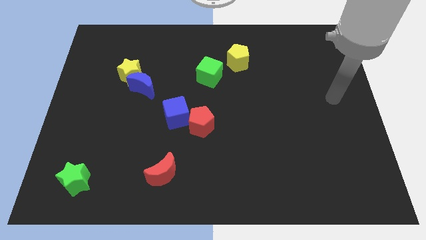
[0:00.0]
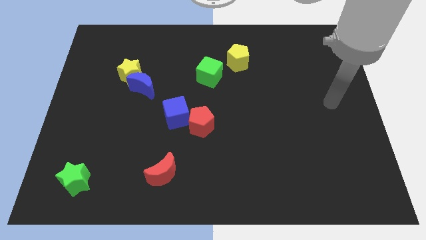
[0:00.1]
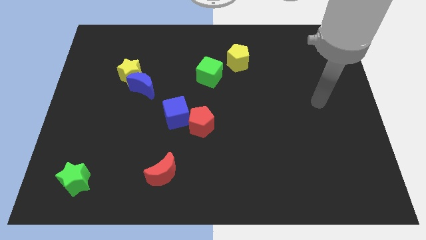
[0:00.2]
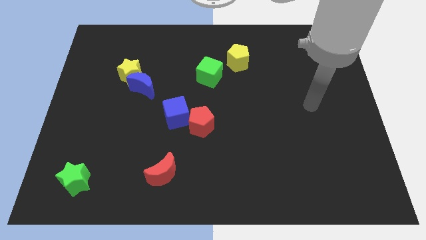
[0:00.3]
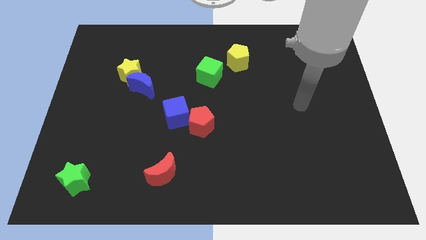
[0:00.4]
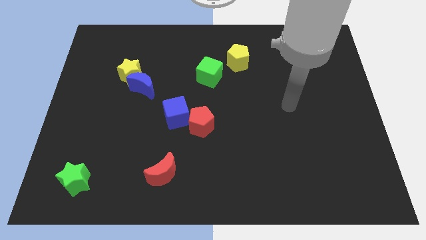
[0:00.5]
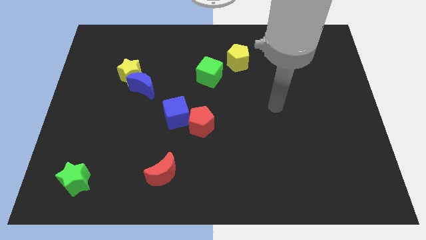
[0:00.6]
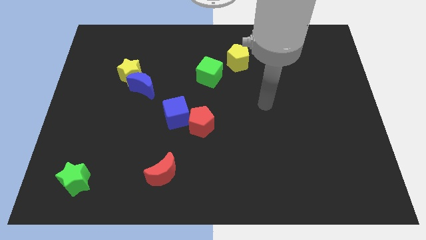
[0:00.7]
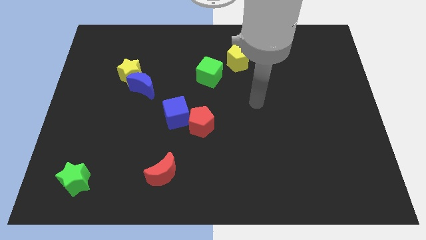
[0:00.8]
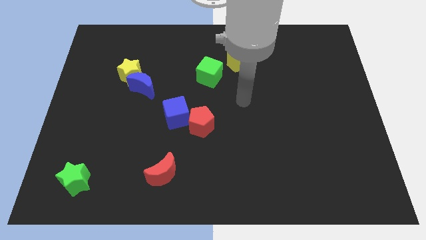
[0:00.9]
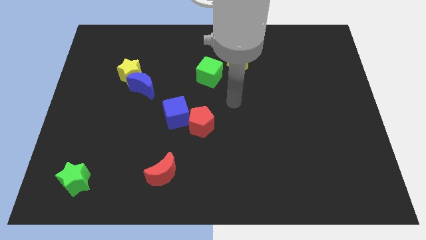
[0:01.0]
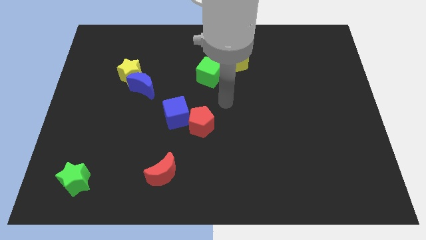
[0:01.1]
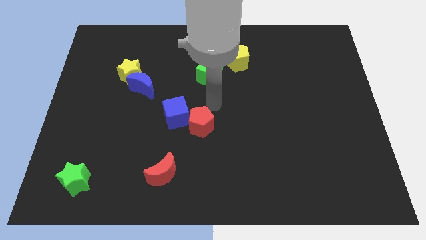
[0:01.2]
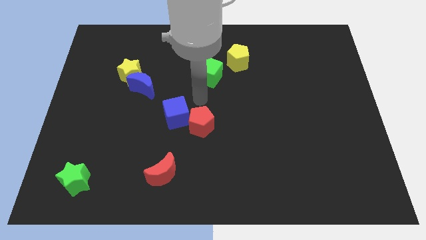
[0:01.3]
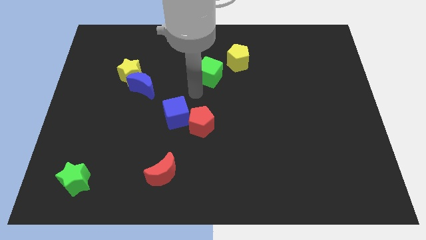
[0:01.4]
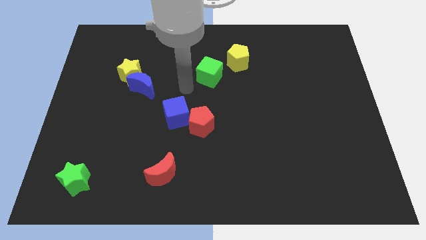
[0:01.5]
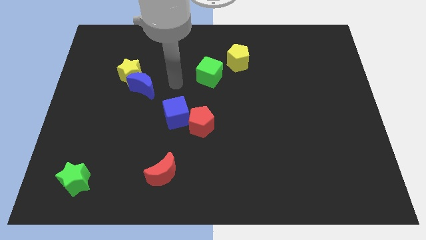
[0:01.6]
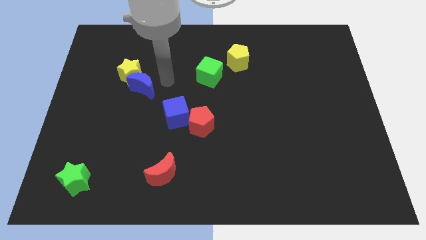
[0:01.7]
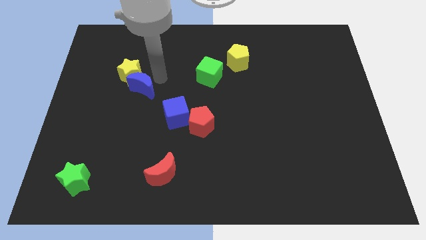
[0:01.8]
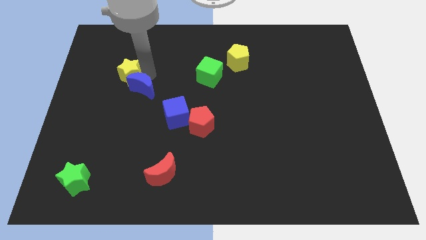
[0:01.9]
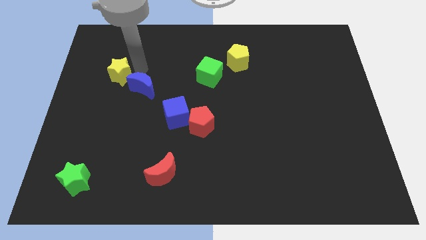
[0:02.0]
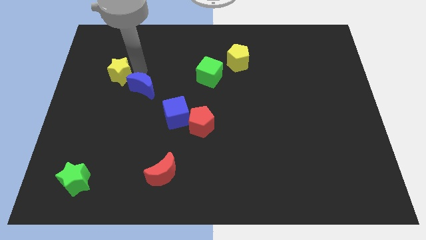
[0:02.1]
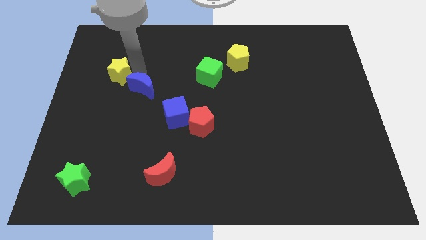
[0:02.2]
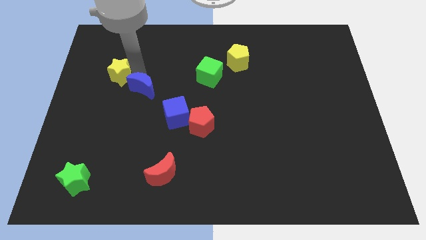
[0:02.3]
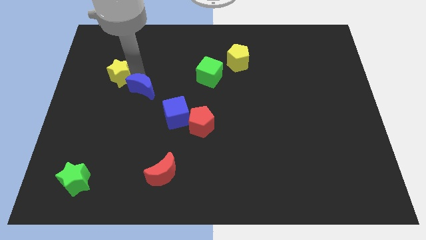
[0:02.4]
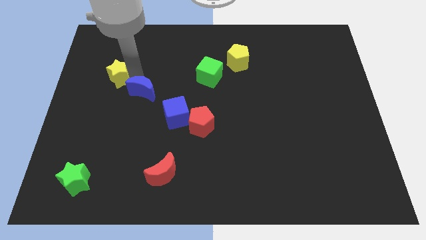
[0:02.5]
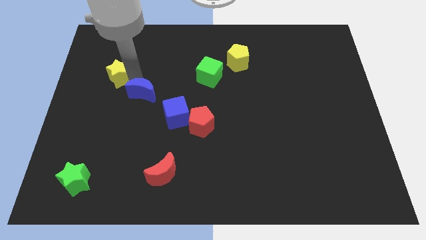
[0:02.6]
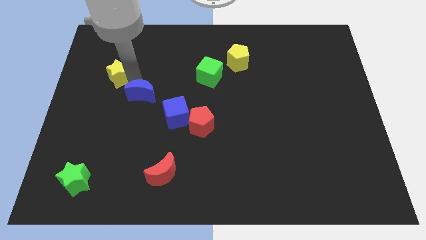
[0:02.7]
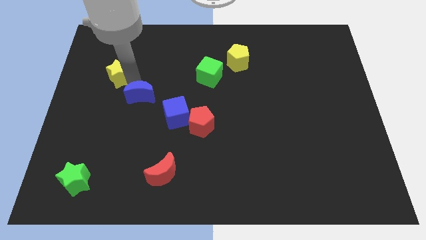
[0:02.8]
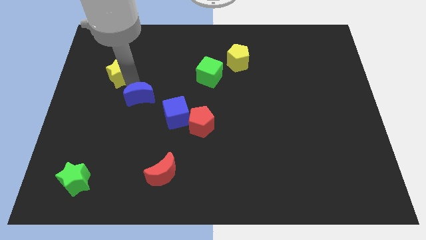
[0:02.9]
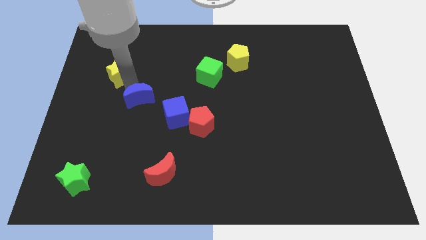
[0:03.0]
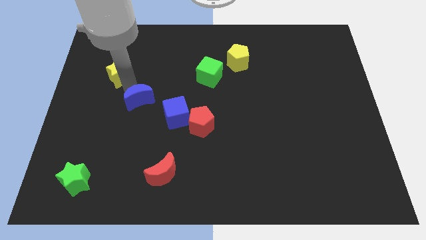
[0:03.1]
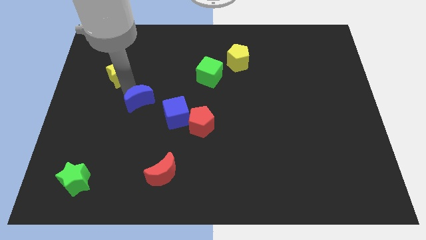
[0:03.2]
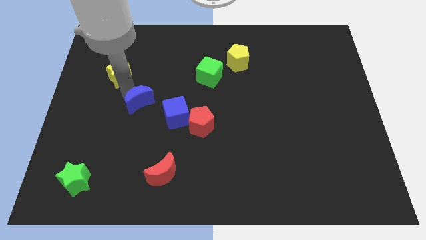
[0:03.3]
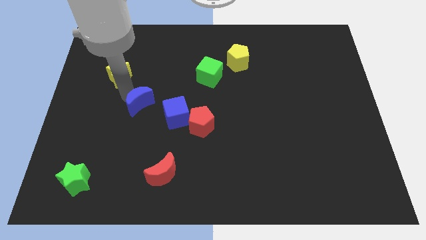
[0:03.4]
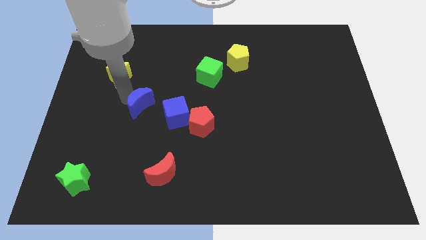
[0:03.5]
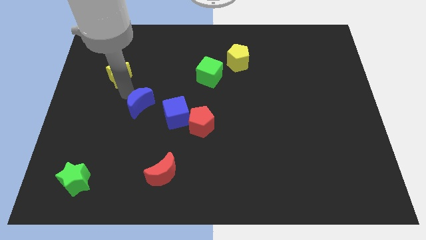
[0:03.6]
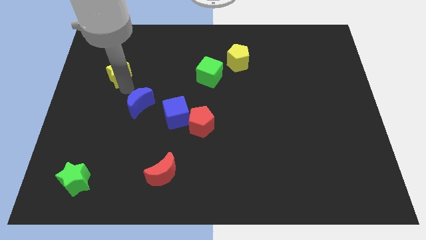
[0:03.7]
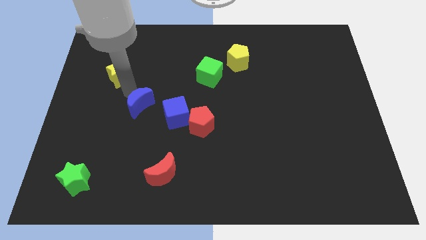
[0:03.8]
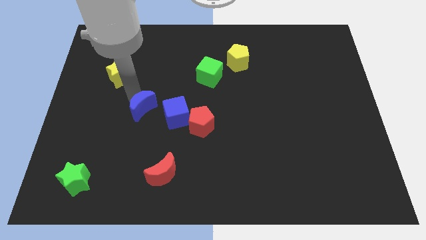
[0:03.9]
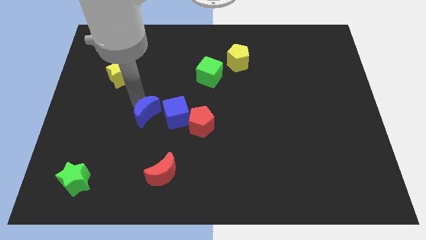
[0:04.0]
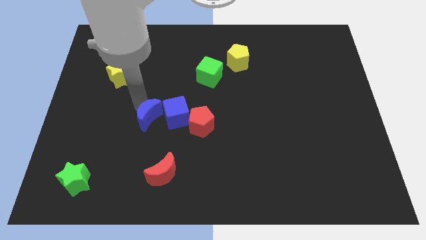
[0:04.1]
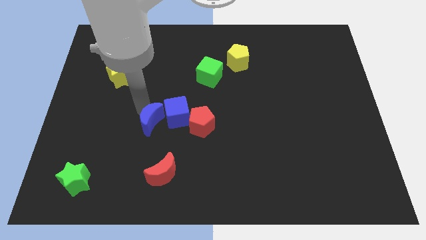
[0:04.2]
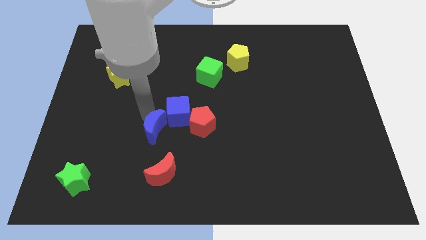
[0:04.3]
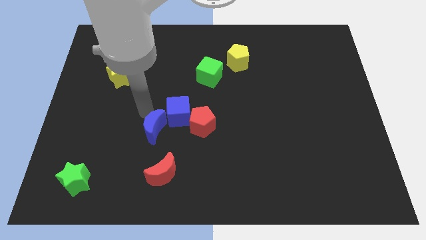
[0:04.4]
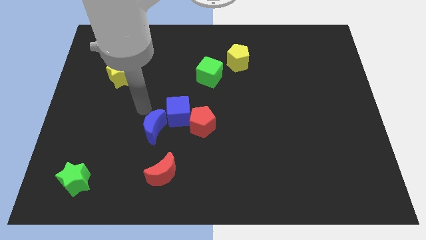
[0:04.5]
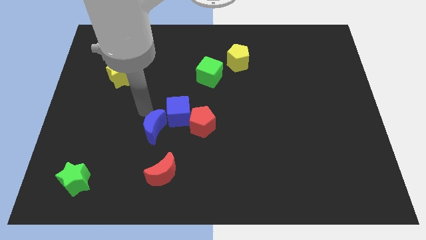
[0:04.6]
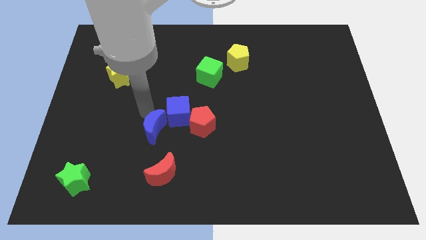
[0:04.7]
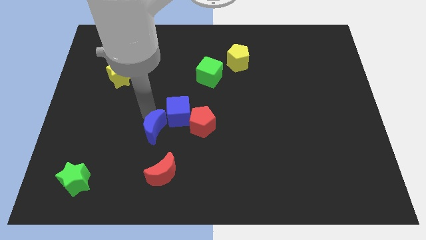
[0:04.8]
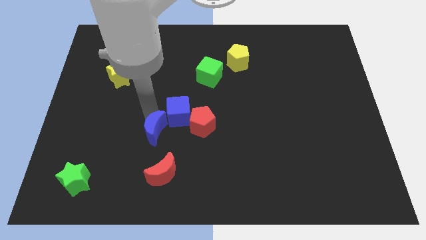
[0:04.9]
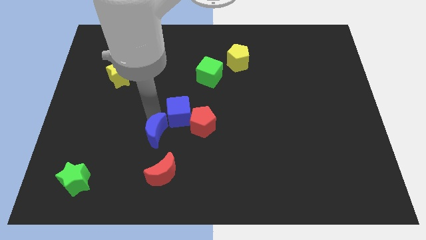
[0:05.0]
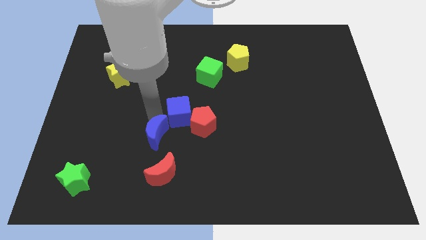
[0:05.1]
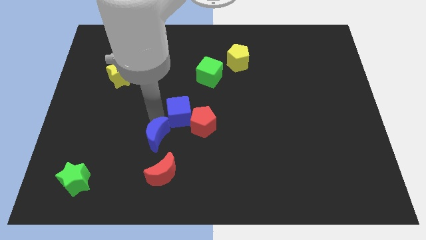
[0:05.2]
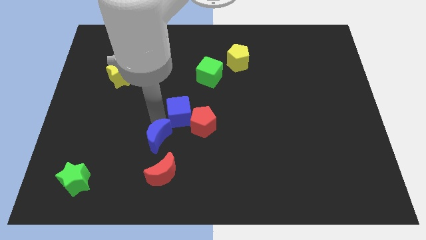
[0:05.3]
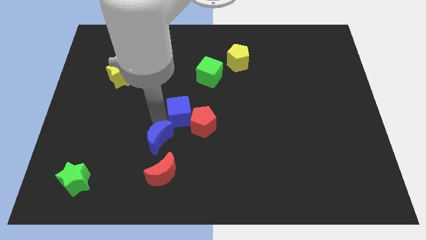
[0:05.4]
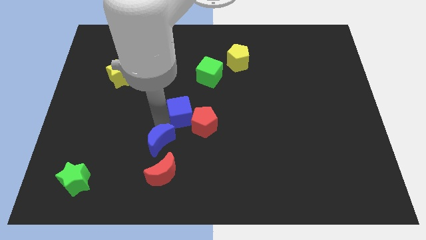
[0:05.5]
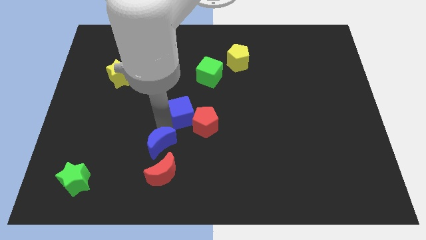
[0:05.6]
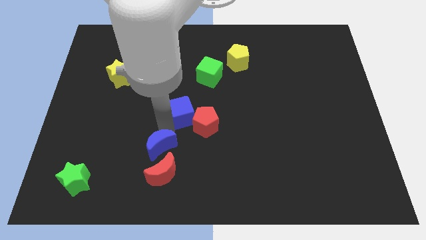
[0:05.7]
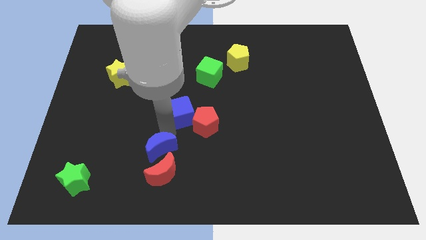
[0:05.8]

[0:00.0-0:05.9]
put the blue moon next to the red moon

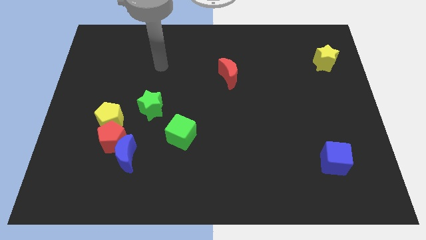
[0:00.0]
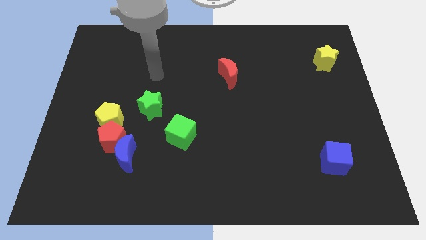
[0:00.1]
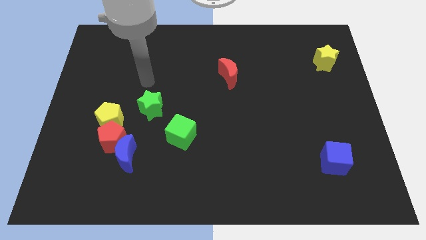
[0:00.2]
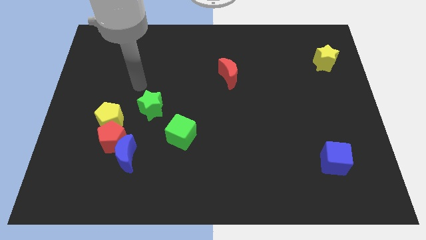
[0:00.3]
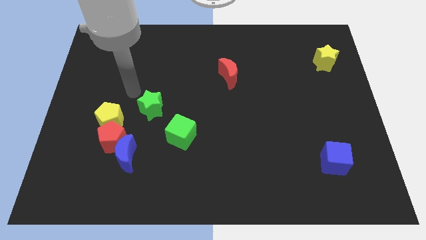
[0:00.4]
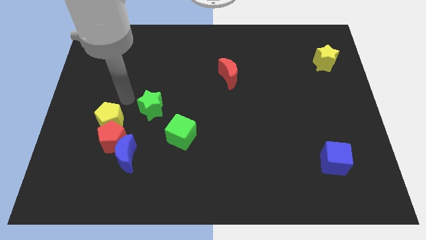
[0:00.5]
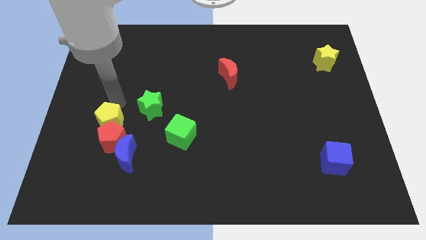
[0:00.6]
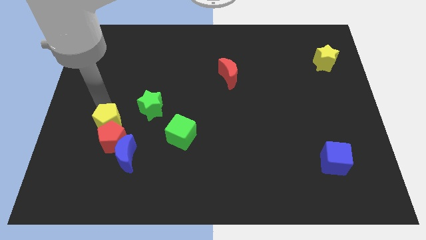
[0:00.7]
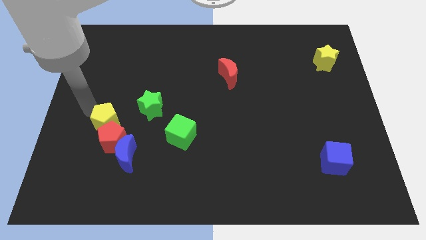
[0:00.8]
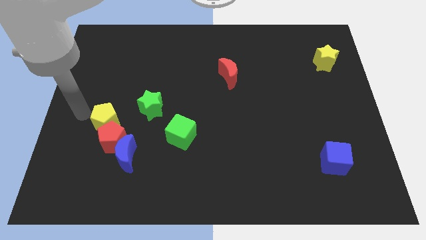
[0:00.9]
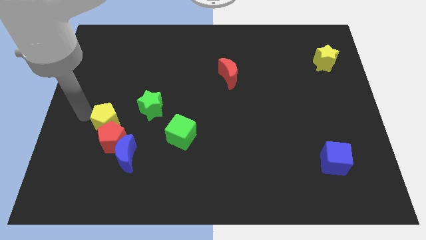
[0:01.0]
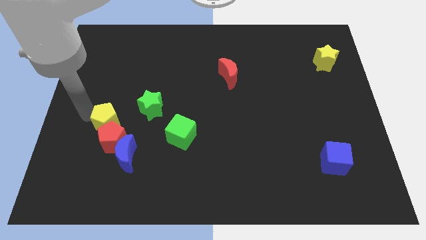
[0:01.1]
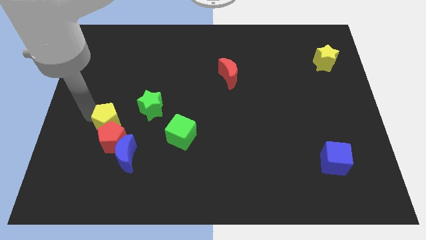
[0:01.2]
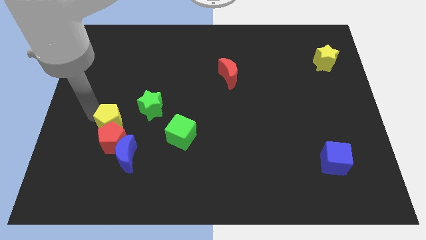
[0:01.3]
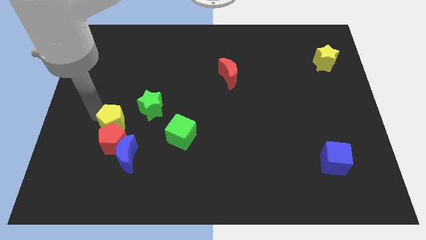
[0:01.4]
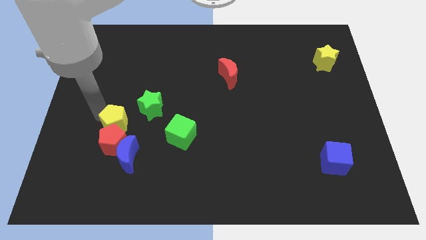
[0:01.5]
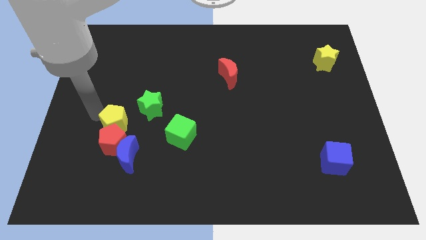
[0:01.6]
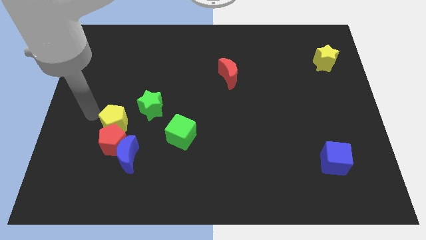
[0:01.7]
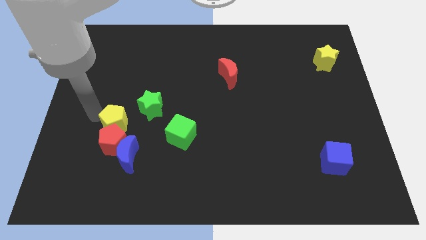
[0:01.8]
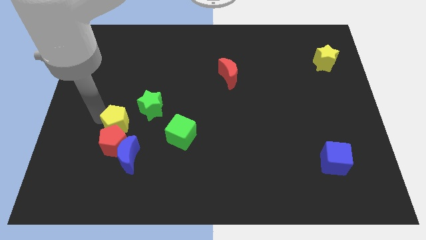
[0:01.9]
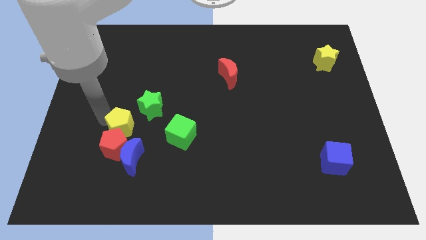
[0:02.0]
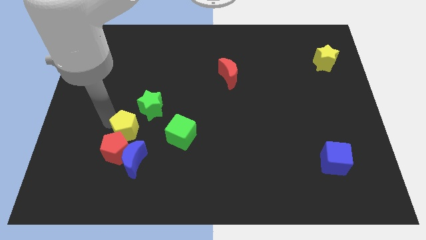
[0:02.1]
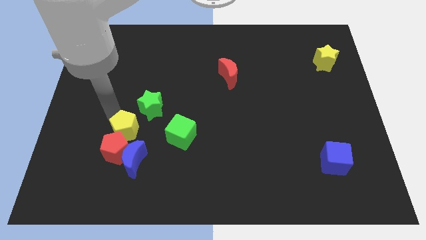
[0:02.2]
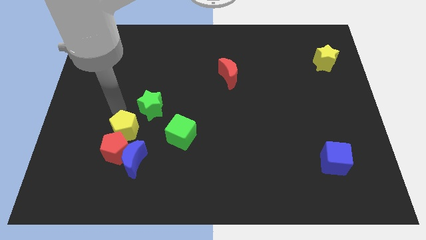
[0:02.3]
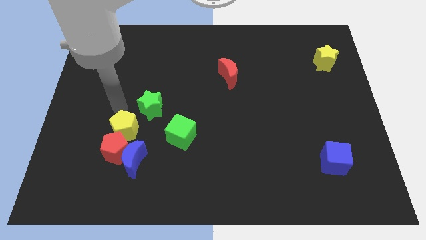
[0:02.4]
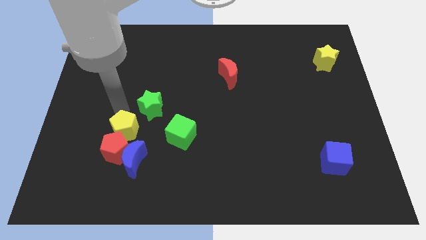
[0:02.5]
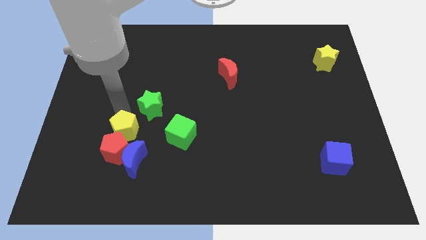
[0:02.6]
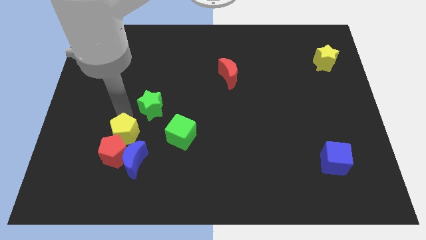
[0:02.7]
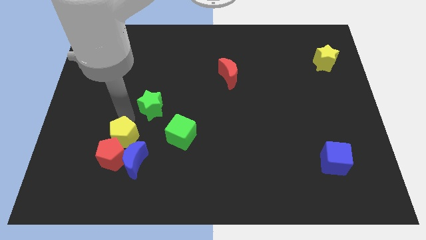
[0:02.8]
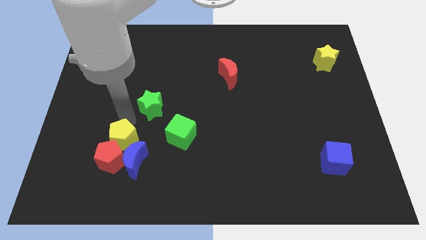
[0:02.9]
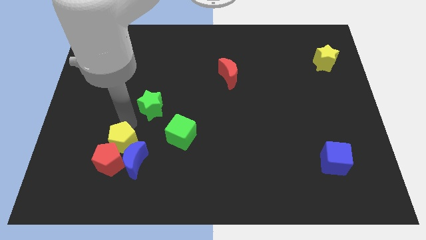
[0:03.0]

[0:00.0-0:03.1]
put the yellow pentagon close to the blue moon
